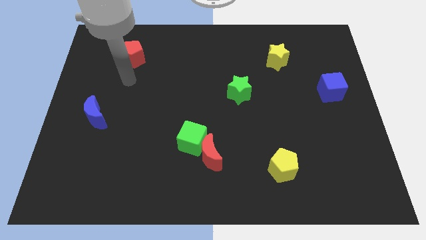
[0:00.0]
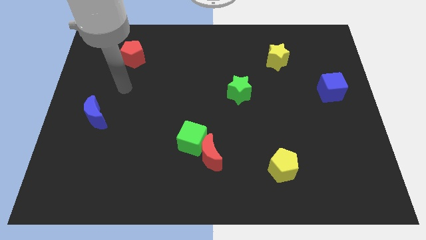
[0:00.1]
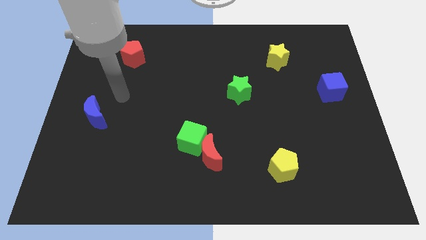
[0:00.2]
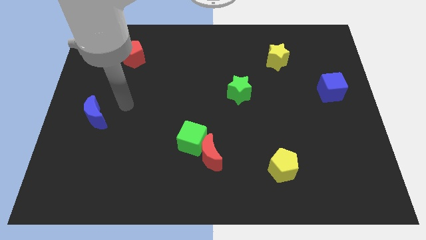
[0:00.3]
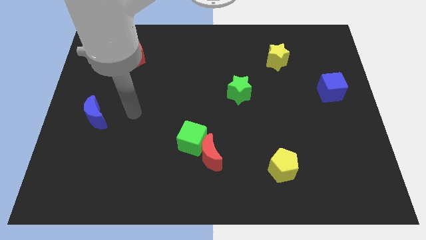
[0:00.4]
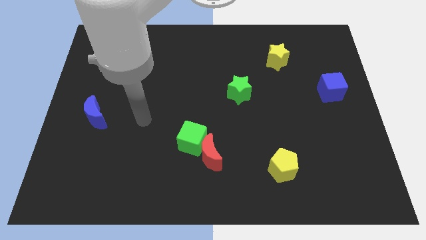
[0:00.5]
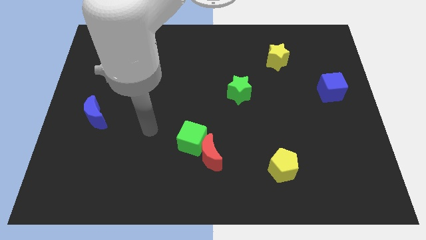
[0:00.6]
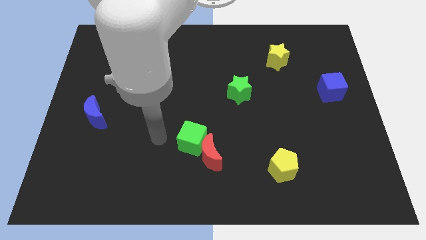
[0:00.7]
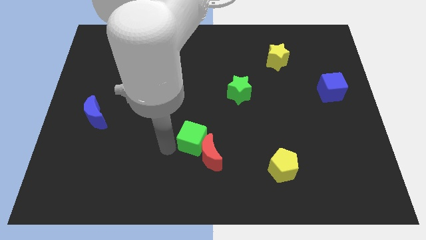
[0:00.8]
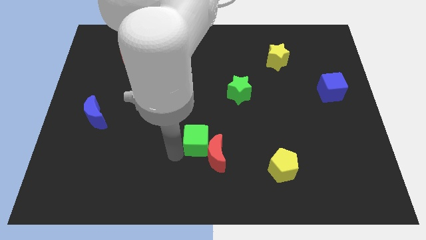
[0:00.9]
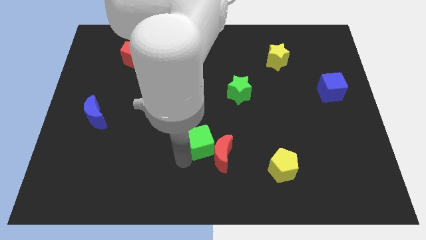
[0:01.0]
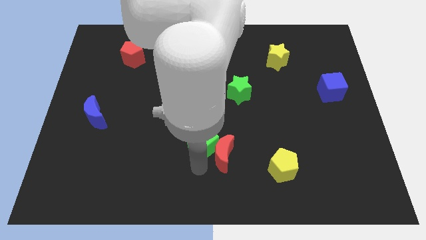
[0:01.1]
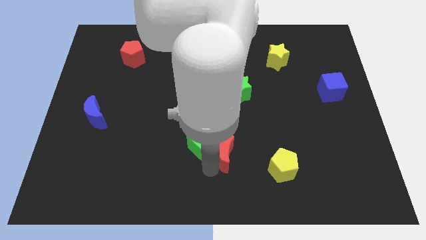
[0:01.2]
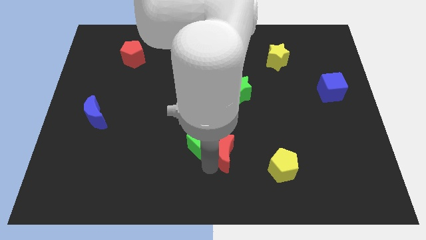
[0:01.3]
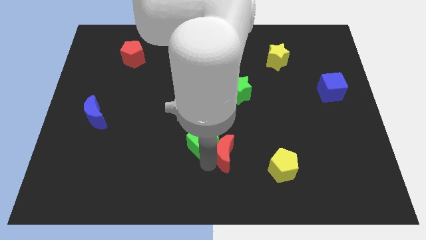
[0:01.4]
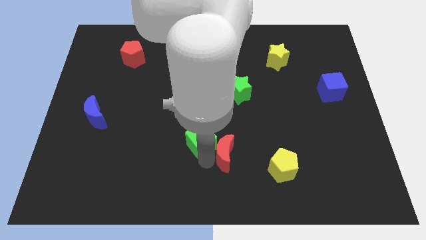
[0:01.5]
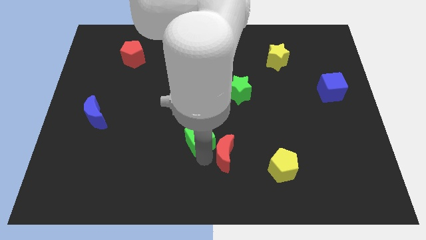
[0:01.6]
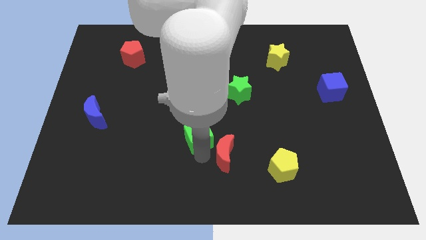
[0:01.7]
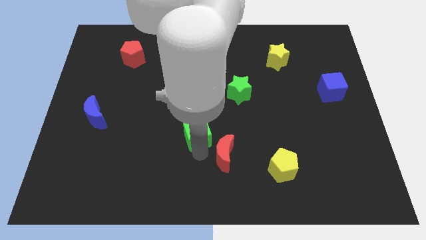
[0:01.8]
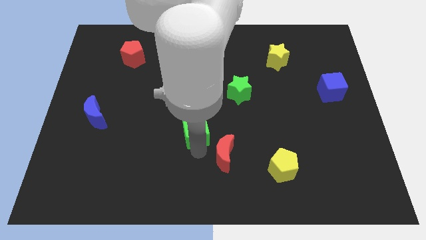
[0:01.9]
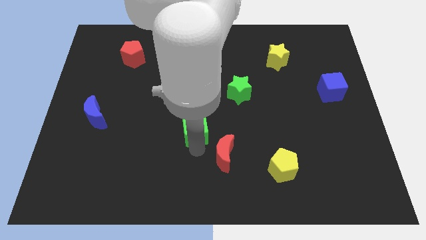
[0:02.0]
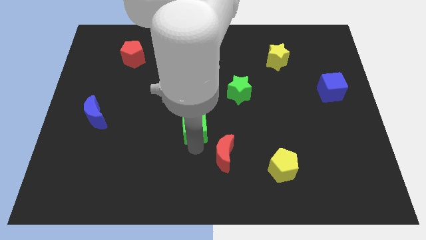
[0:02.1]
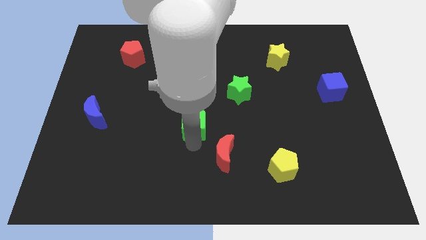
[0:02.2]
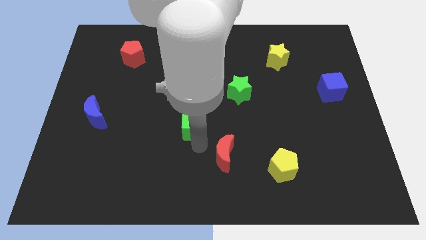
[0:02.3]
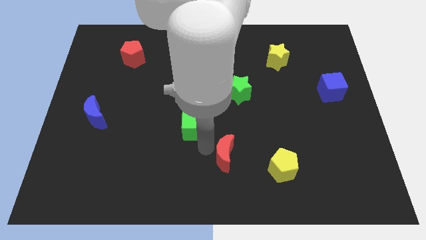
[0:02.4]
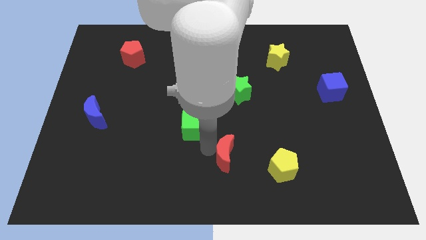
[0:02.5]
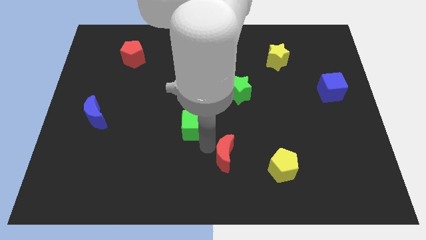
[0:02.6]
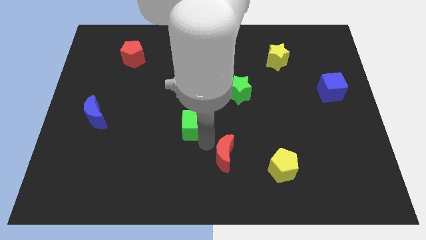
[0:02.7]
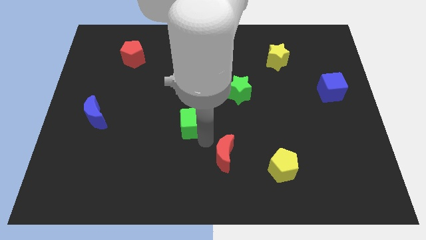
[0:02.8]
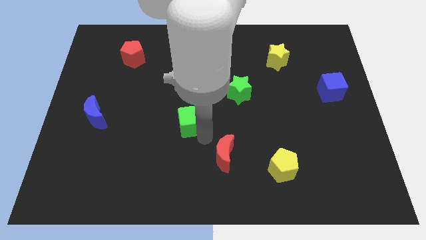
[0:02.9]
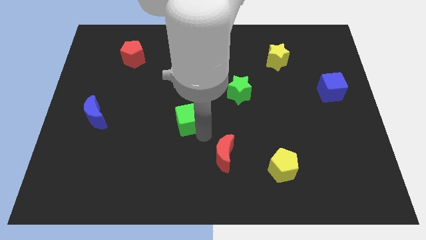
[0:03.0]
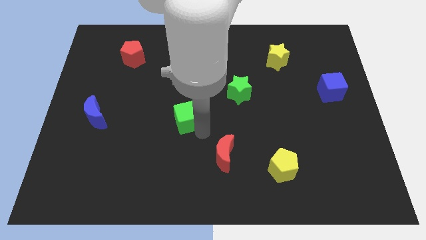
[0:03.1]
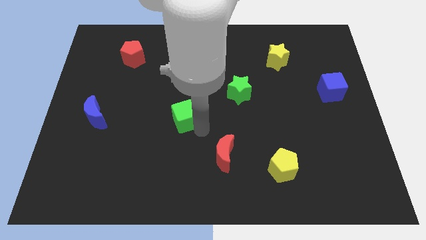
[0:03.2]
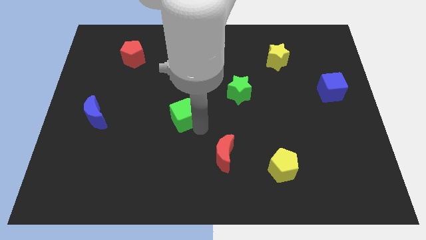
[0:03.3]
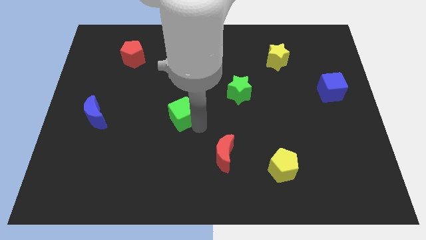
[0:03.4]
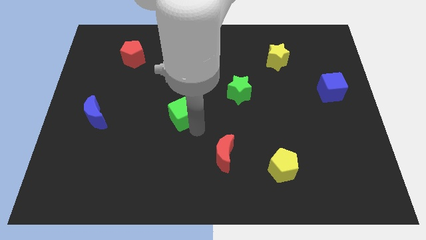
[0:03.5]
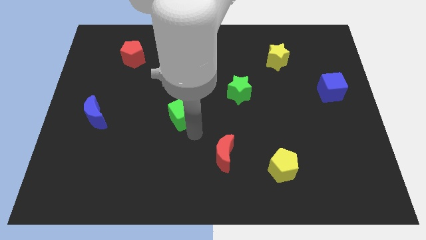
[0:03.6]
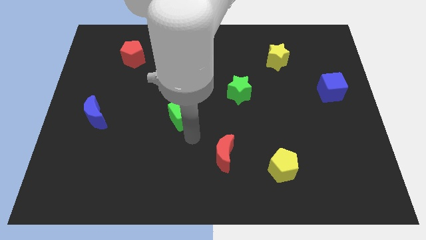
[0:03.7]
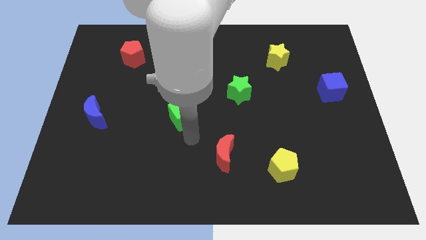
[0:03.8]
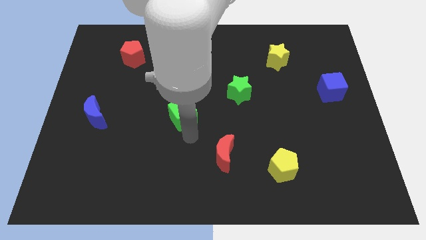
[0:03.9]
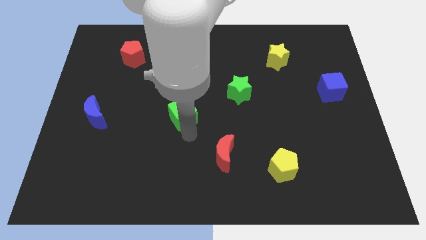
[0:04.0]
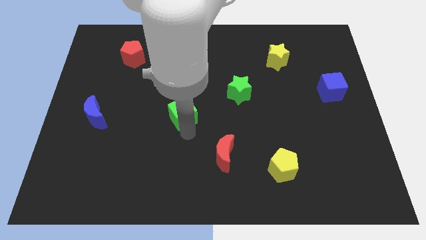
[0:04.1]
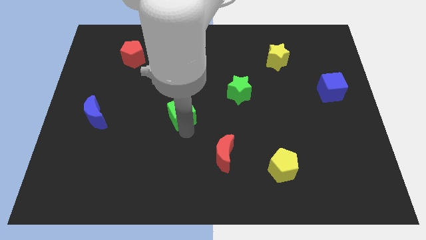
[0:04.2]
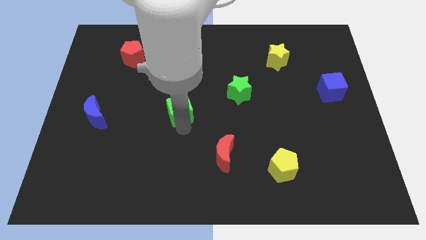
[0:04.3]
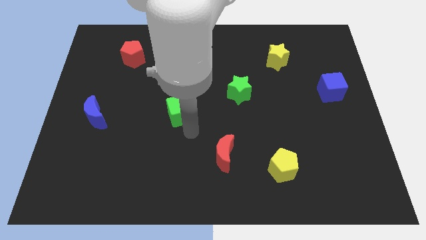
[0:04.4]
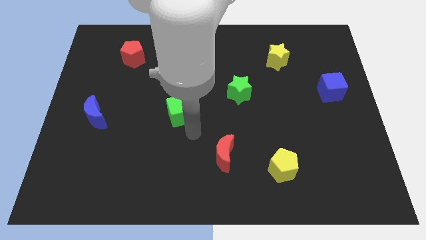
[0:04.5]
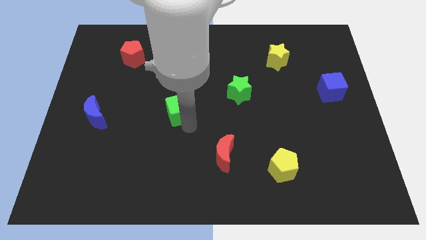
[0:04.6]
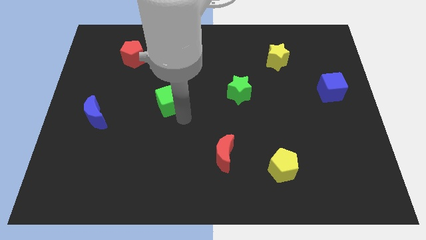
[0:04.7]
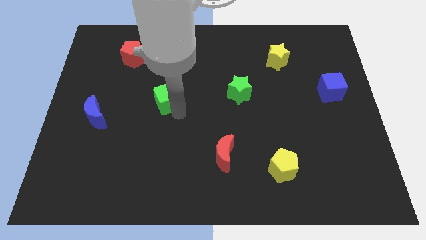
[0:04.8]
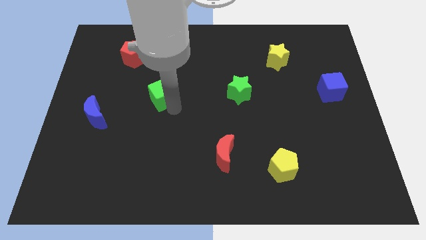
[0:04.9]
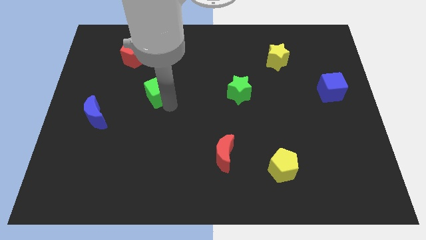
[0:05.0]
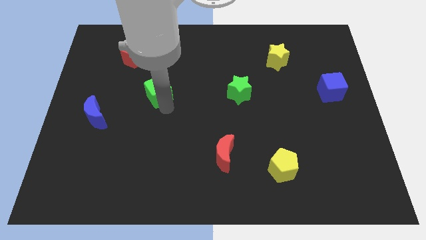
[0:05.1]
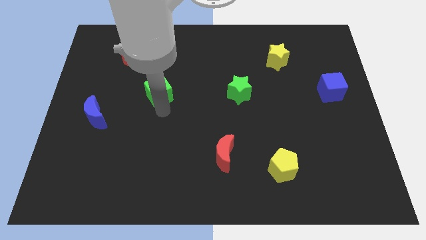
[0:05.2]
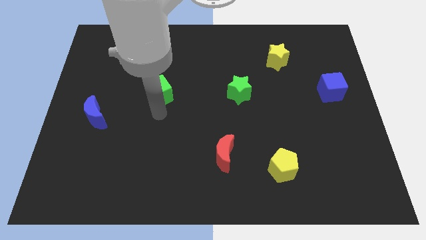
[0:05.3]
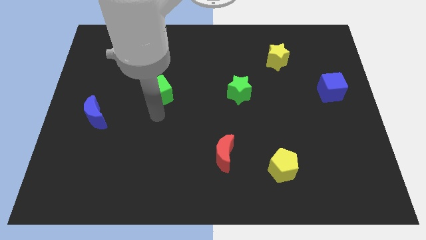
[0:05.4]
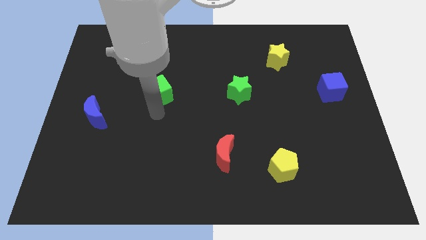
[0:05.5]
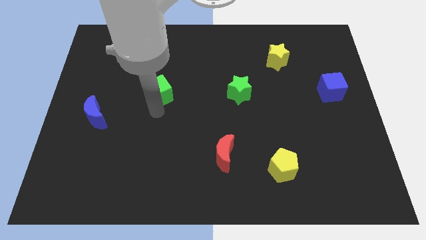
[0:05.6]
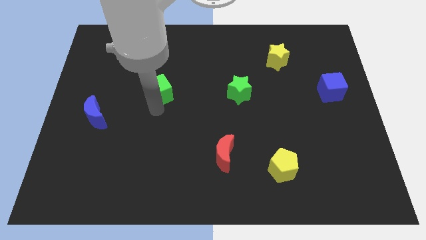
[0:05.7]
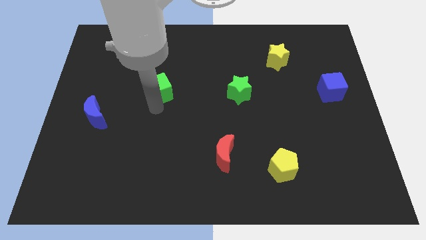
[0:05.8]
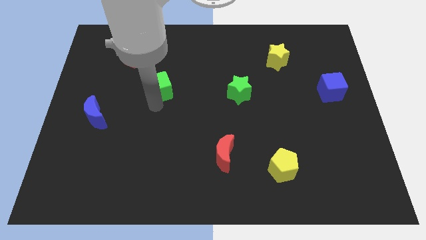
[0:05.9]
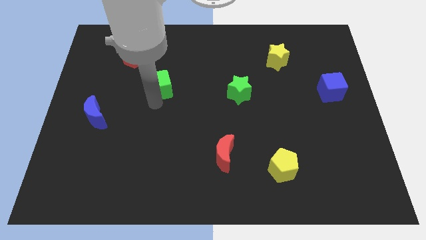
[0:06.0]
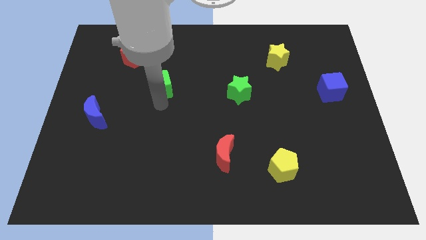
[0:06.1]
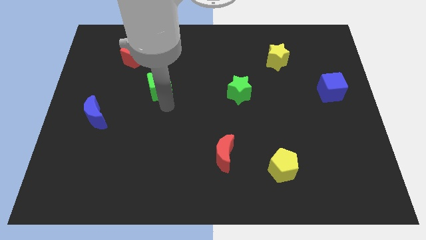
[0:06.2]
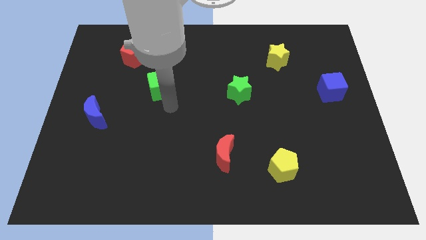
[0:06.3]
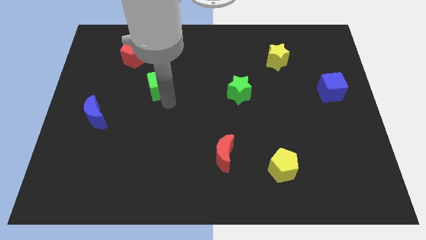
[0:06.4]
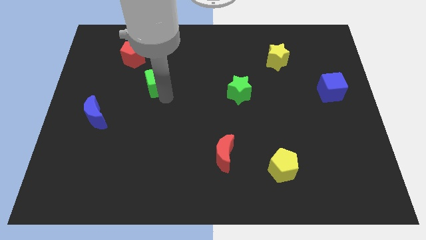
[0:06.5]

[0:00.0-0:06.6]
put the green cube to the bottom right side of the red pentagon

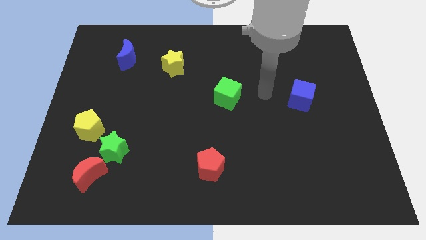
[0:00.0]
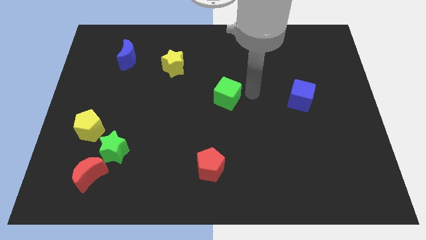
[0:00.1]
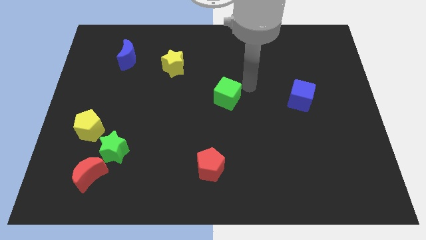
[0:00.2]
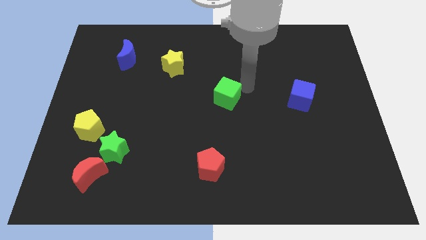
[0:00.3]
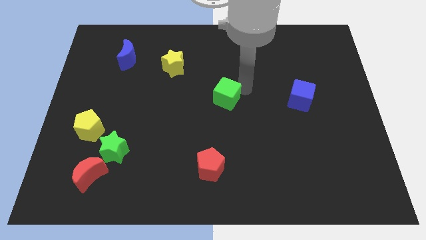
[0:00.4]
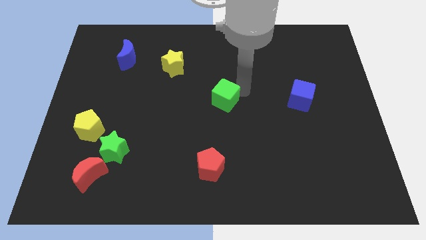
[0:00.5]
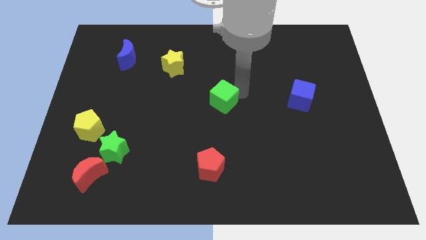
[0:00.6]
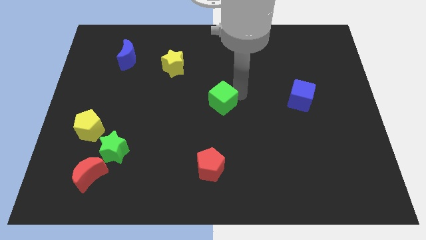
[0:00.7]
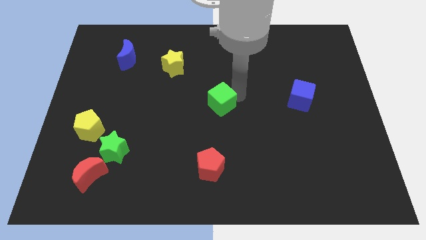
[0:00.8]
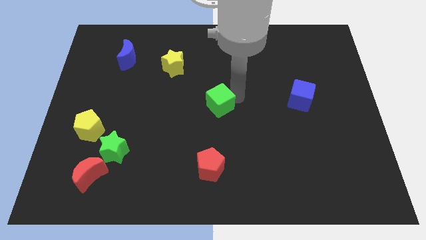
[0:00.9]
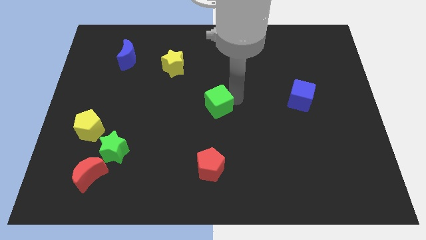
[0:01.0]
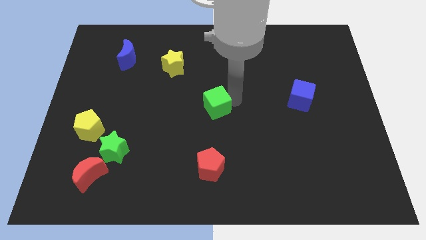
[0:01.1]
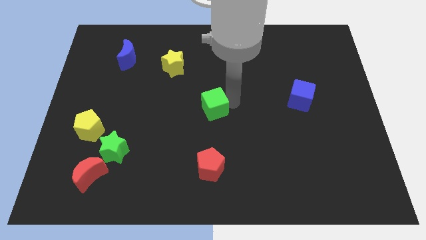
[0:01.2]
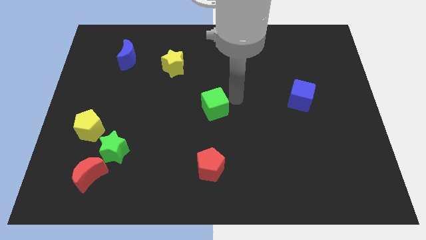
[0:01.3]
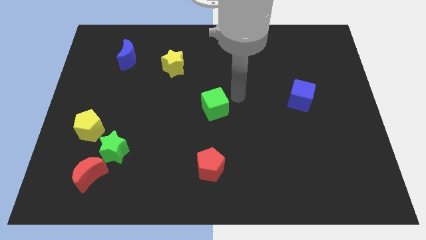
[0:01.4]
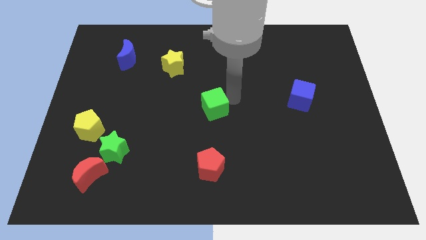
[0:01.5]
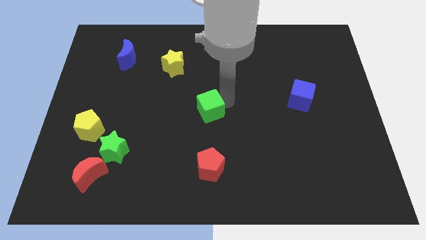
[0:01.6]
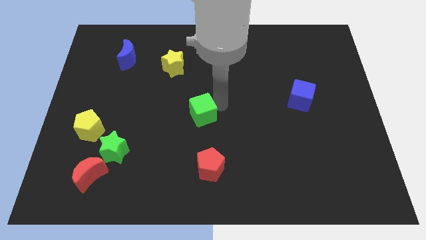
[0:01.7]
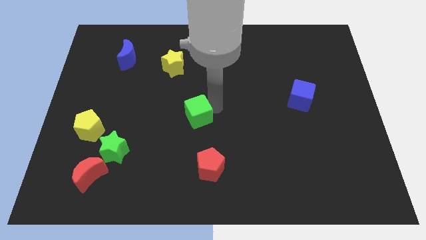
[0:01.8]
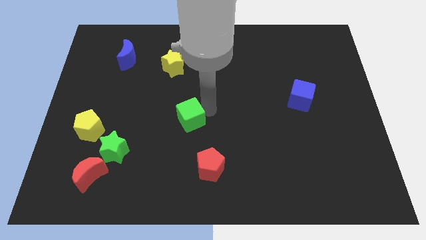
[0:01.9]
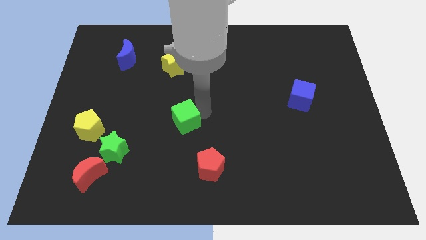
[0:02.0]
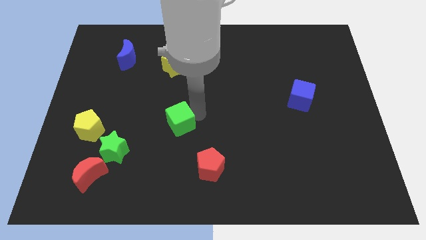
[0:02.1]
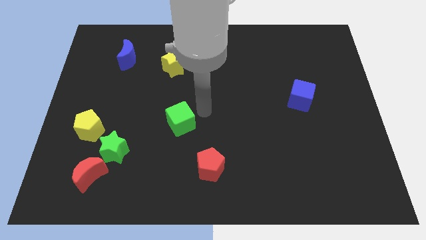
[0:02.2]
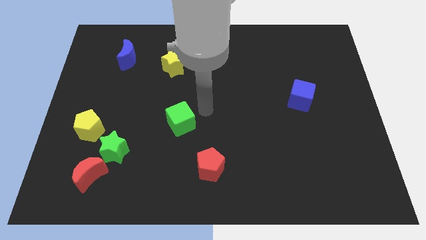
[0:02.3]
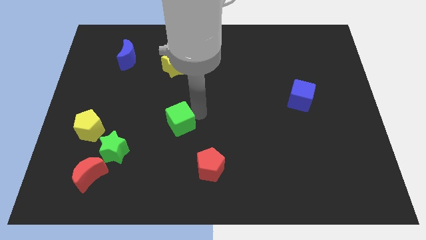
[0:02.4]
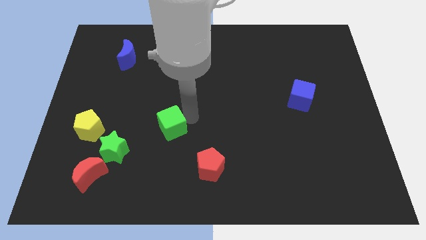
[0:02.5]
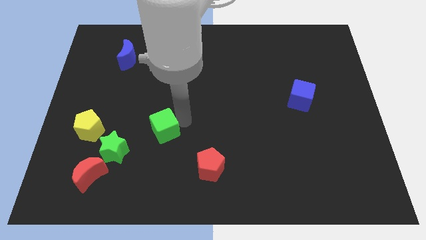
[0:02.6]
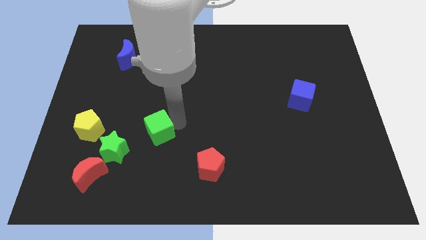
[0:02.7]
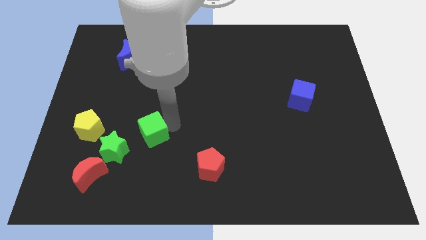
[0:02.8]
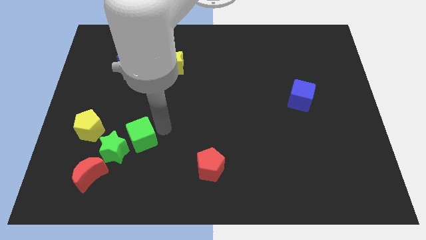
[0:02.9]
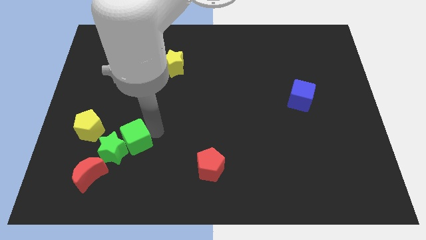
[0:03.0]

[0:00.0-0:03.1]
put the green cube to the top right side of the red moon
